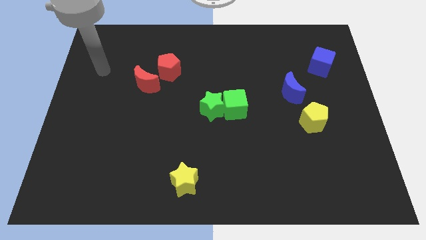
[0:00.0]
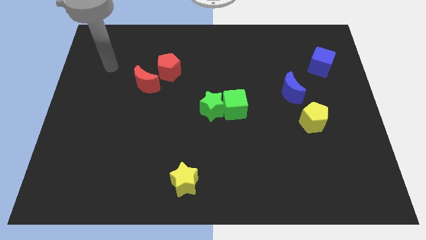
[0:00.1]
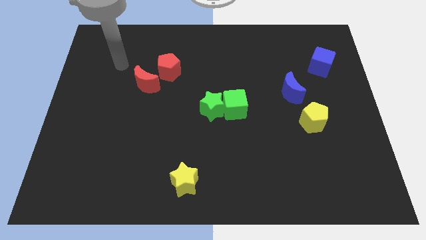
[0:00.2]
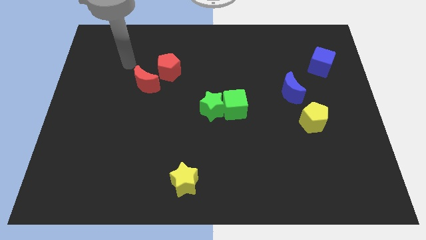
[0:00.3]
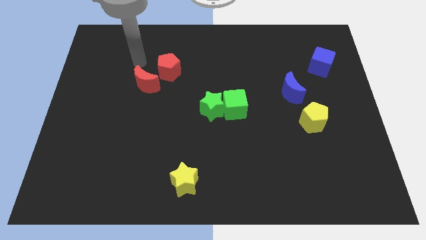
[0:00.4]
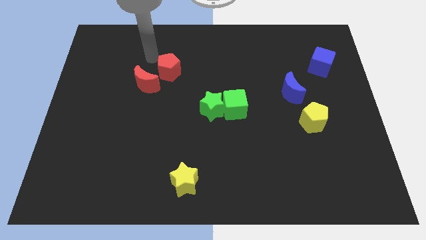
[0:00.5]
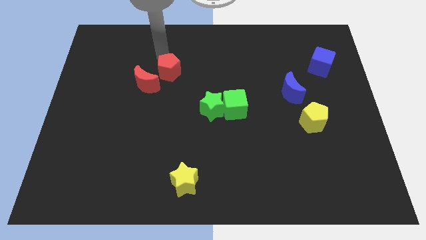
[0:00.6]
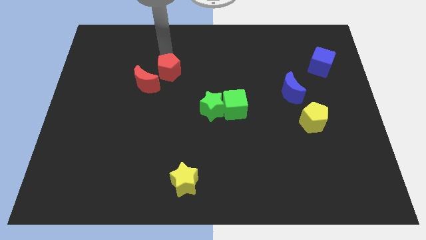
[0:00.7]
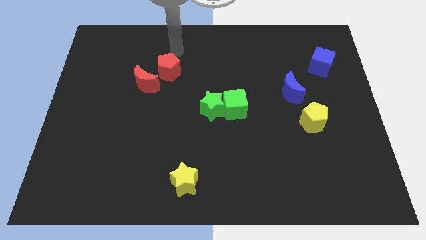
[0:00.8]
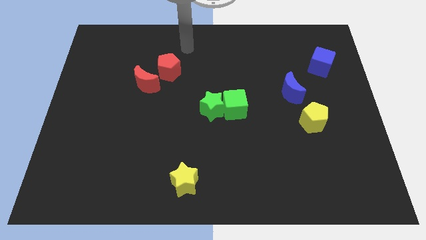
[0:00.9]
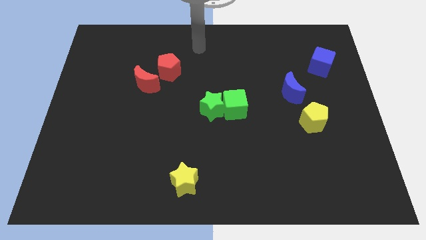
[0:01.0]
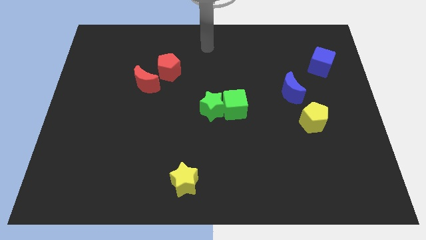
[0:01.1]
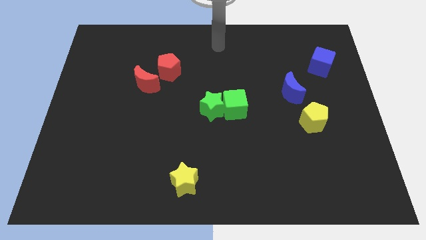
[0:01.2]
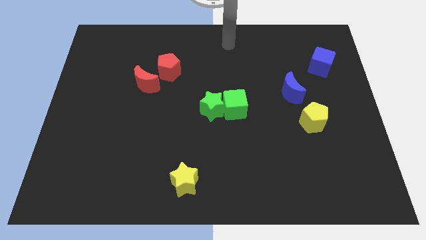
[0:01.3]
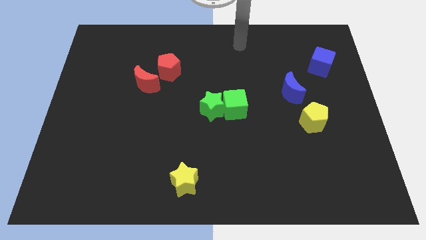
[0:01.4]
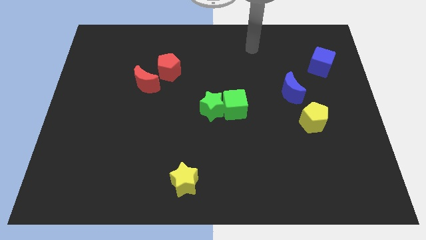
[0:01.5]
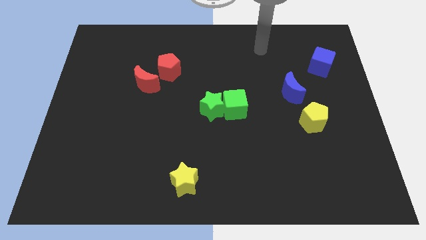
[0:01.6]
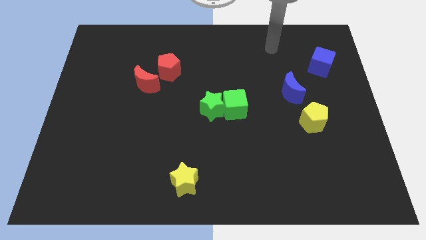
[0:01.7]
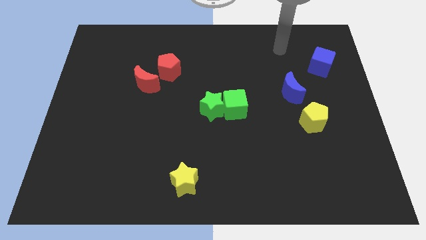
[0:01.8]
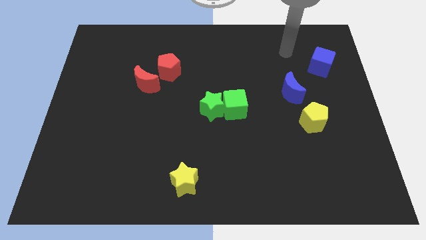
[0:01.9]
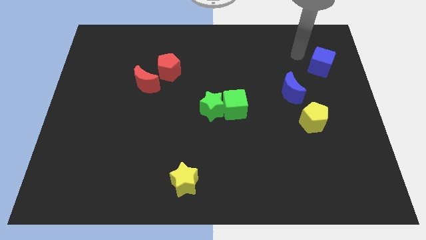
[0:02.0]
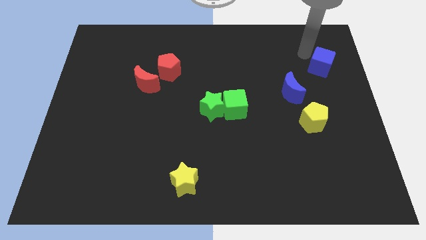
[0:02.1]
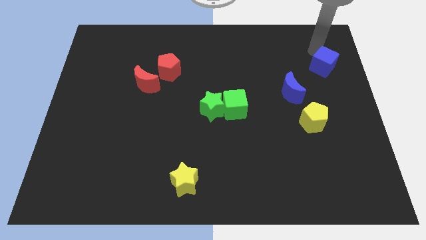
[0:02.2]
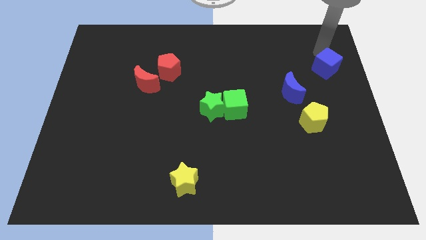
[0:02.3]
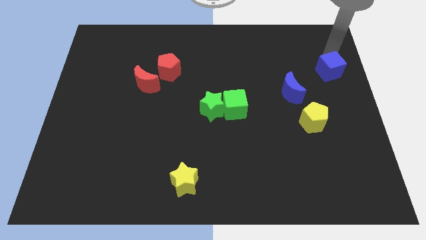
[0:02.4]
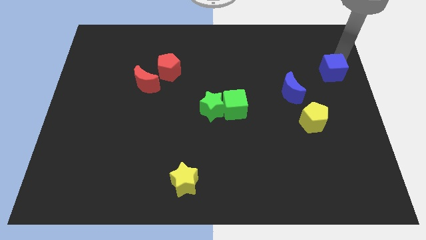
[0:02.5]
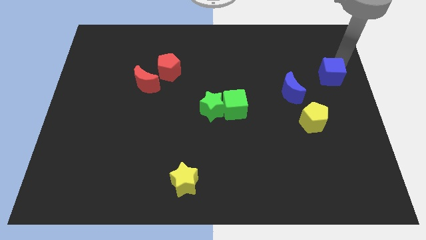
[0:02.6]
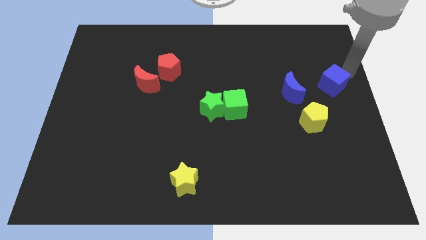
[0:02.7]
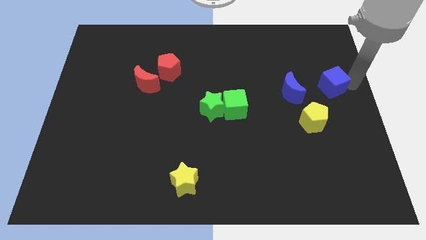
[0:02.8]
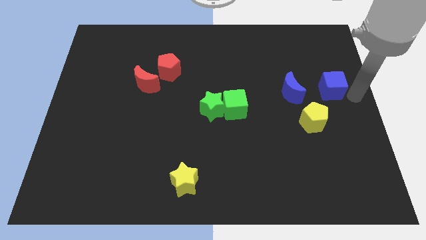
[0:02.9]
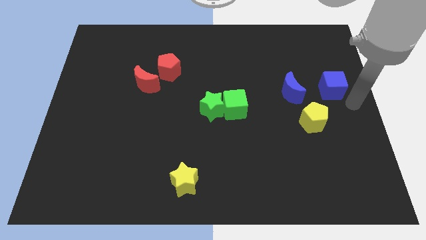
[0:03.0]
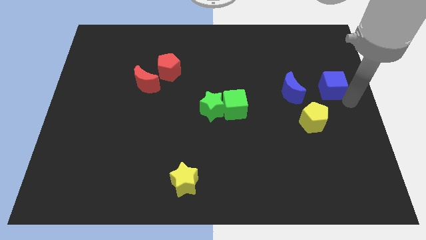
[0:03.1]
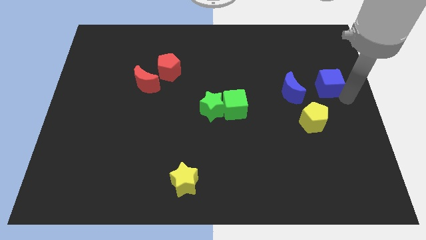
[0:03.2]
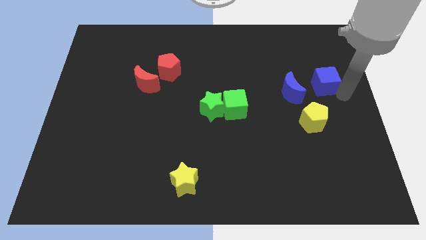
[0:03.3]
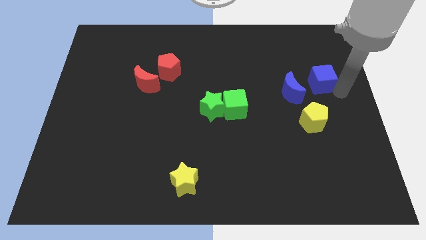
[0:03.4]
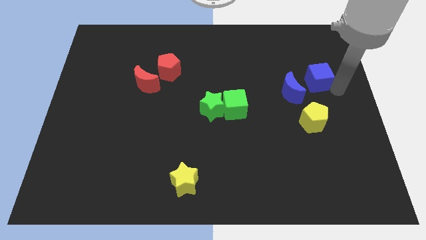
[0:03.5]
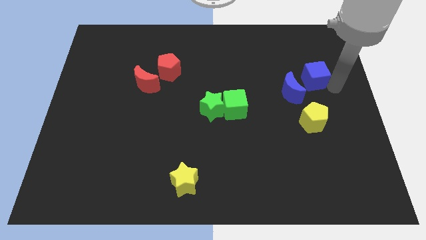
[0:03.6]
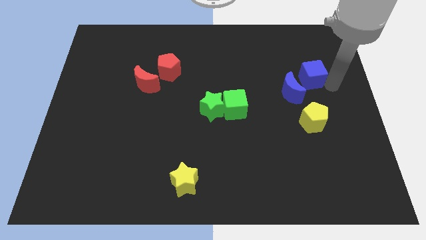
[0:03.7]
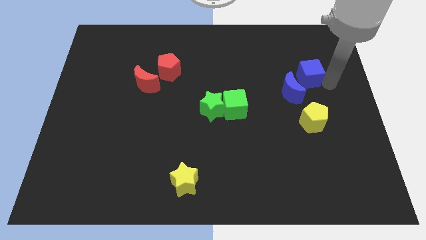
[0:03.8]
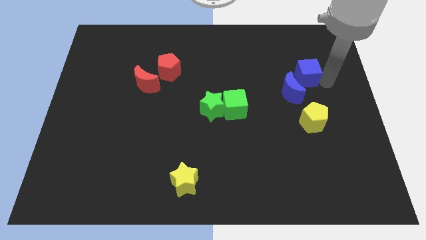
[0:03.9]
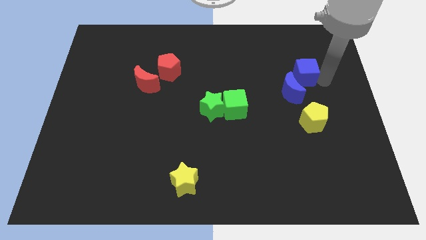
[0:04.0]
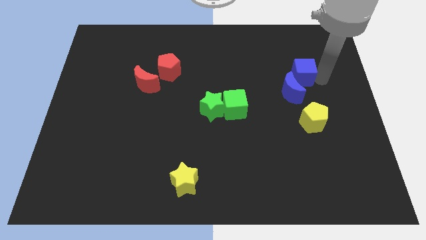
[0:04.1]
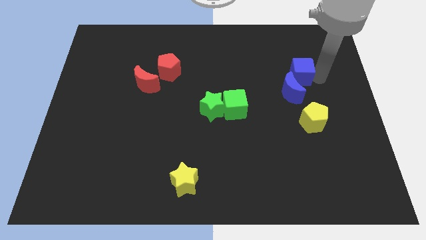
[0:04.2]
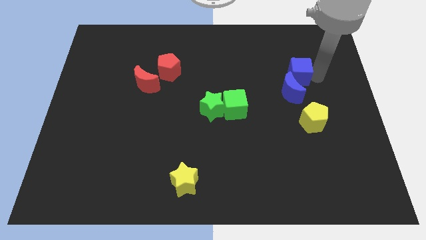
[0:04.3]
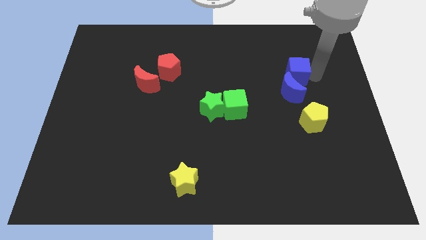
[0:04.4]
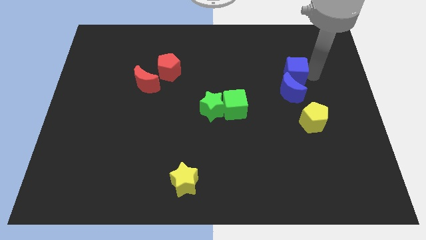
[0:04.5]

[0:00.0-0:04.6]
slide the blue cube a little left

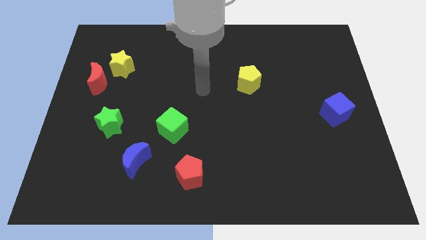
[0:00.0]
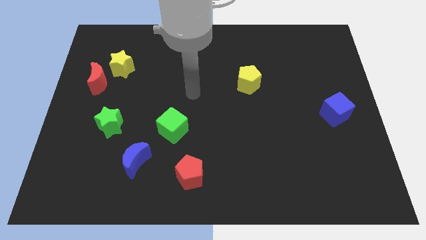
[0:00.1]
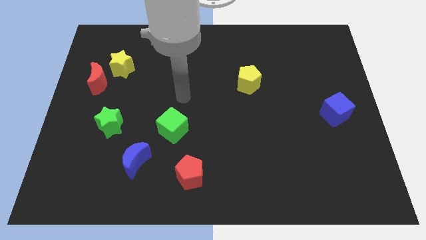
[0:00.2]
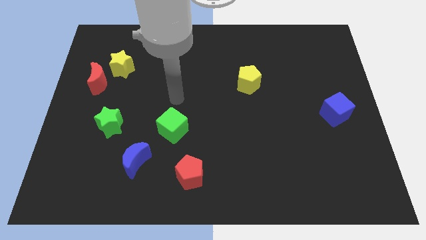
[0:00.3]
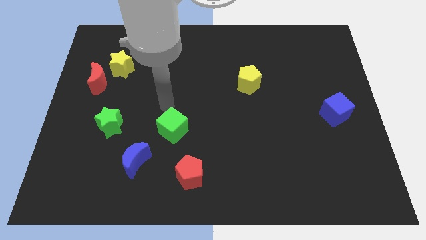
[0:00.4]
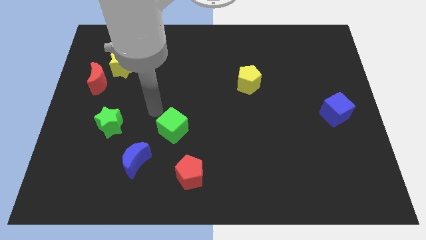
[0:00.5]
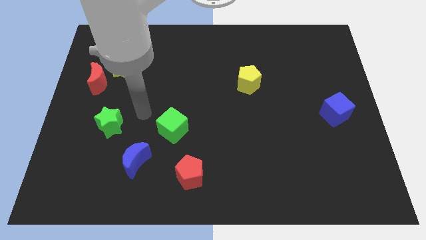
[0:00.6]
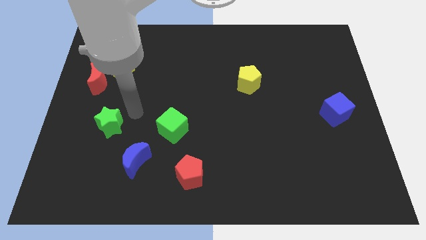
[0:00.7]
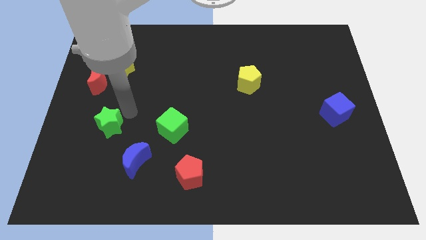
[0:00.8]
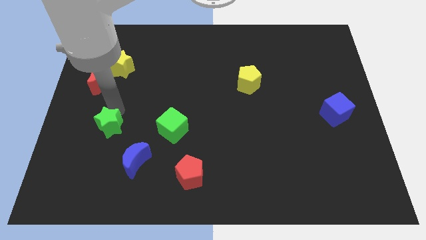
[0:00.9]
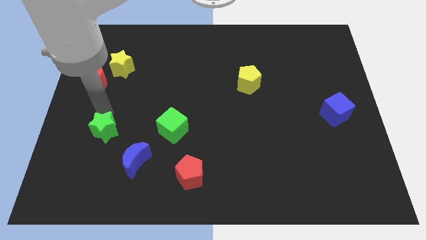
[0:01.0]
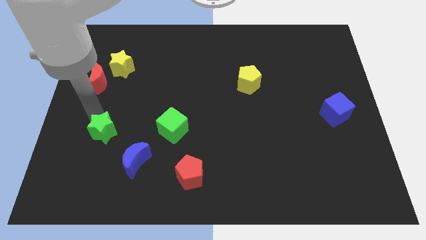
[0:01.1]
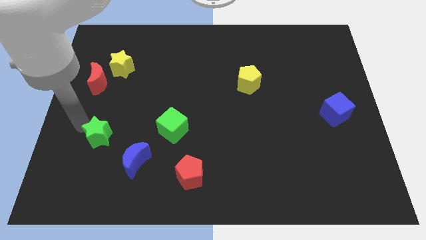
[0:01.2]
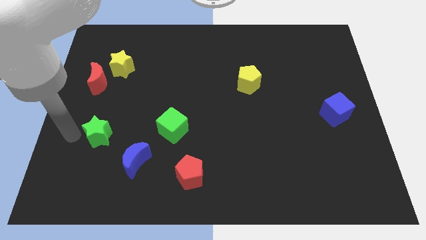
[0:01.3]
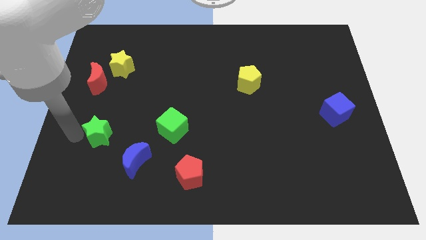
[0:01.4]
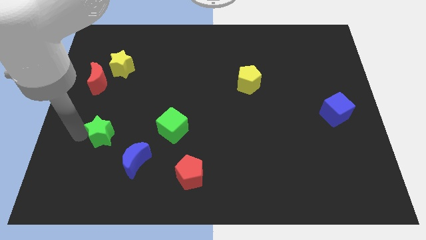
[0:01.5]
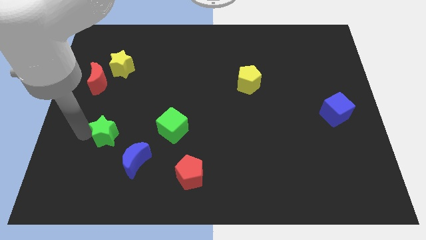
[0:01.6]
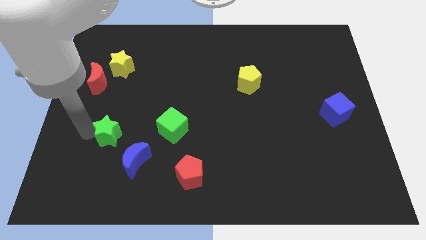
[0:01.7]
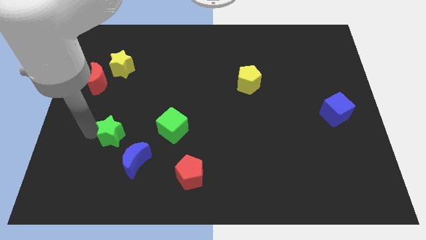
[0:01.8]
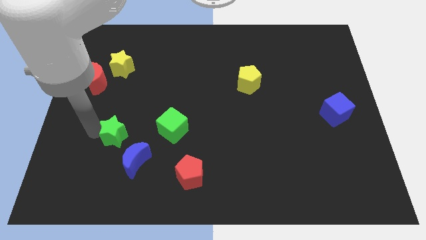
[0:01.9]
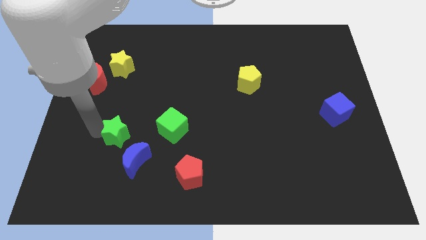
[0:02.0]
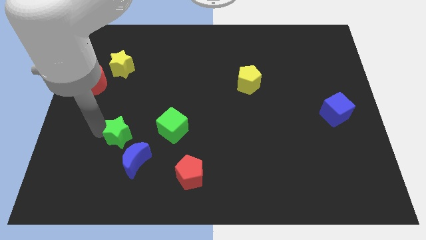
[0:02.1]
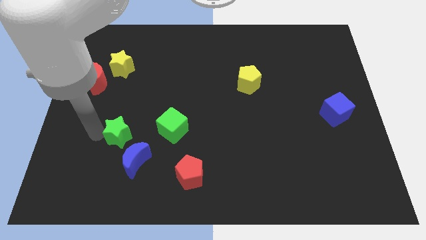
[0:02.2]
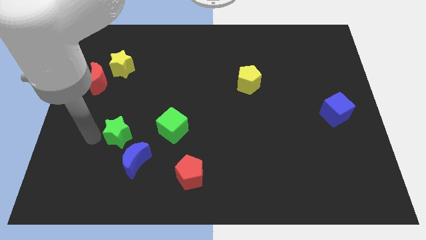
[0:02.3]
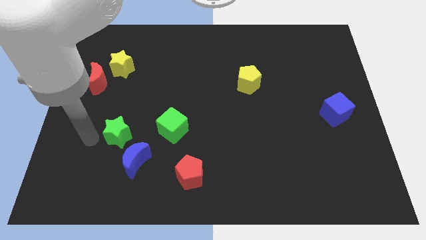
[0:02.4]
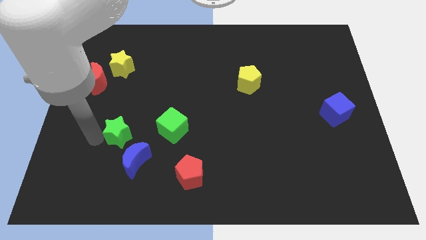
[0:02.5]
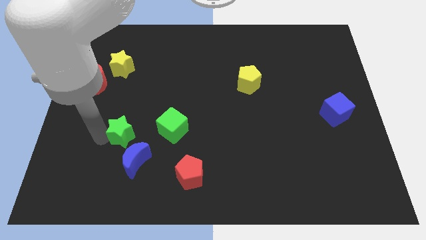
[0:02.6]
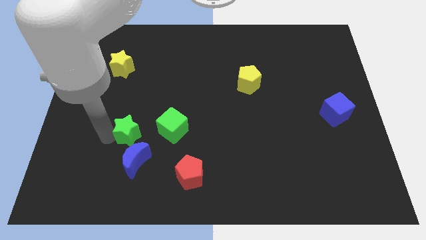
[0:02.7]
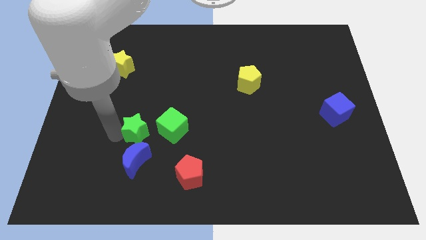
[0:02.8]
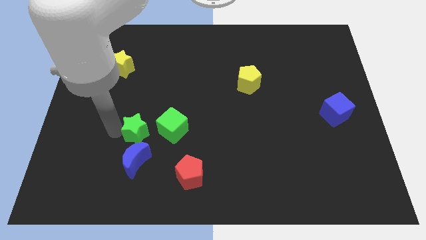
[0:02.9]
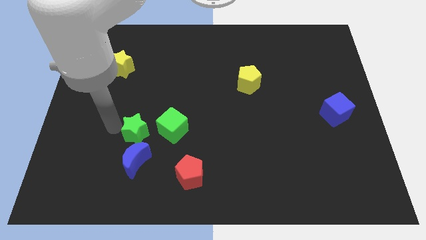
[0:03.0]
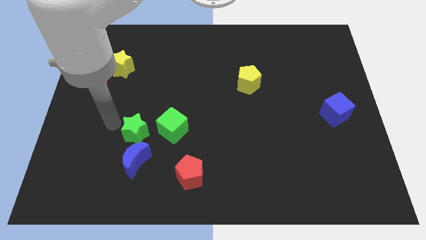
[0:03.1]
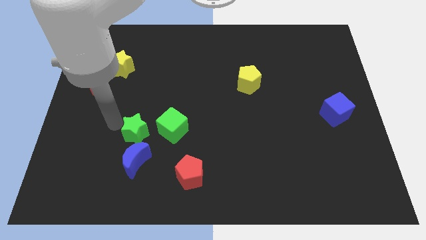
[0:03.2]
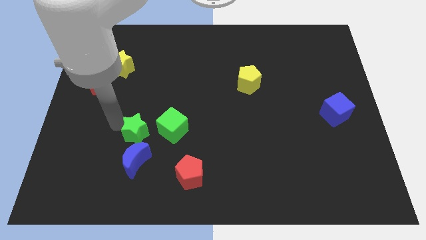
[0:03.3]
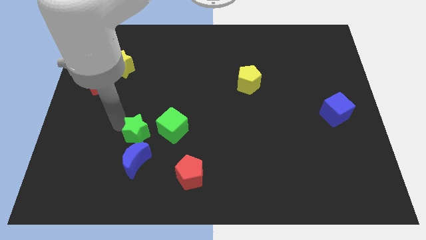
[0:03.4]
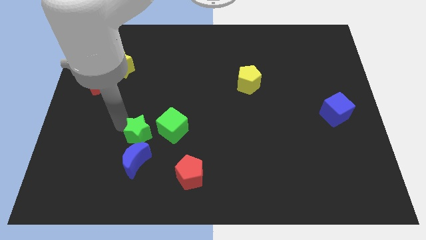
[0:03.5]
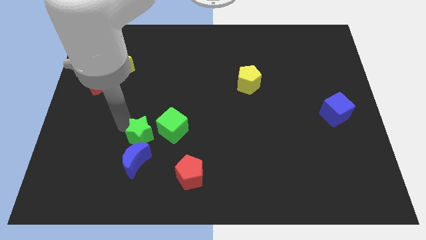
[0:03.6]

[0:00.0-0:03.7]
slightly move the green star to the right
